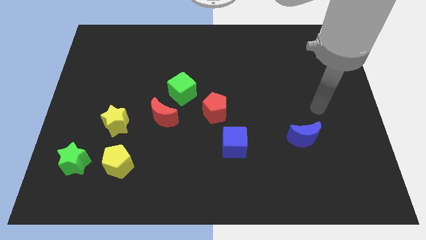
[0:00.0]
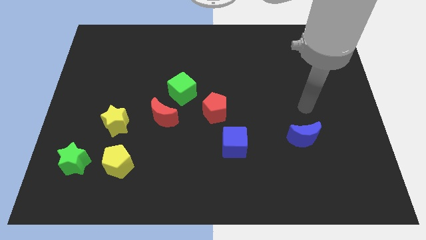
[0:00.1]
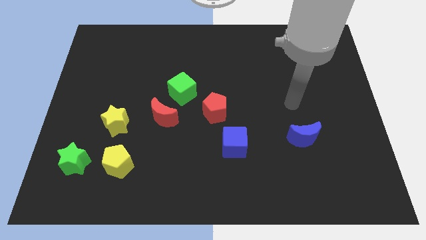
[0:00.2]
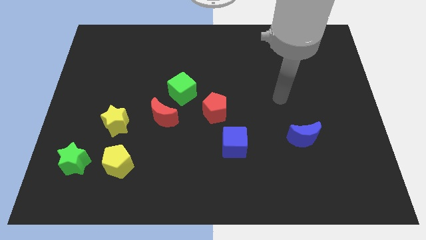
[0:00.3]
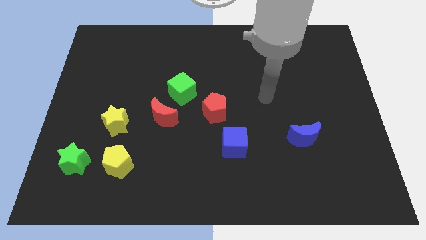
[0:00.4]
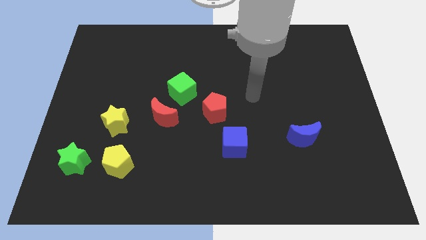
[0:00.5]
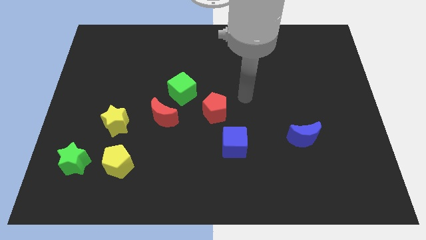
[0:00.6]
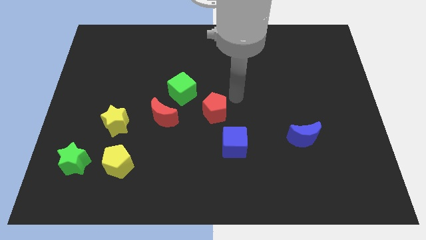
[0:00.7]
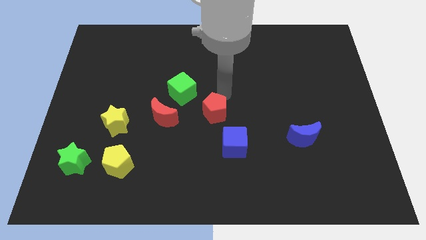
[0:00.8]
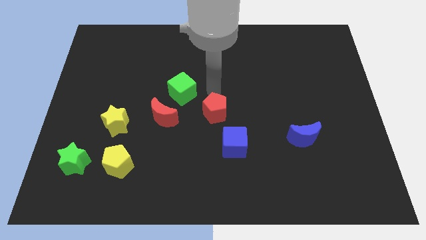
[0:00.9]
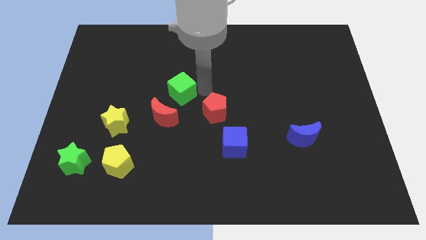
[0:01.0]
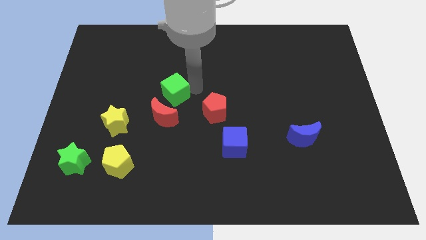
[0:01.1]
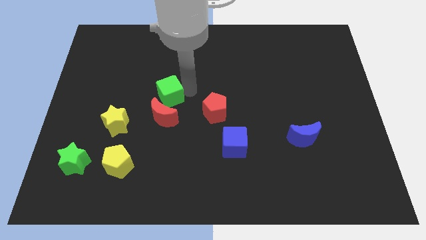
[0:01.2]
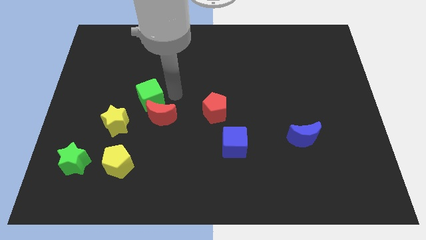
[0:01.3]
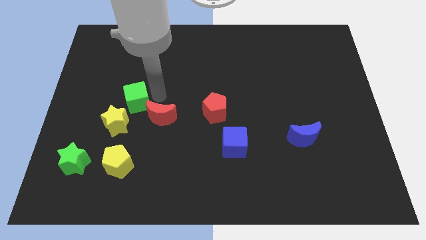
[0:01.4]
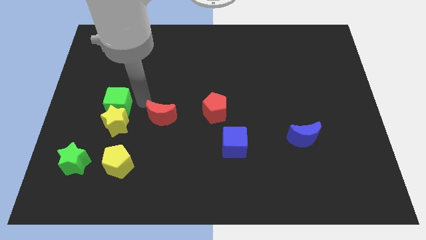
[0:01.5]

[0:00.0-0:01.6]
move the red moon away from the green cube

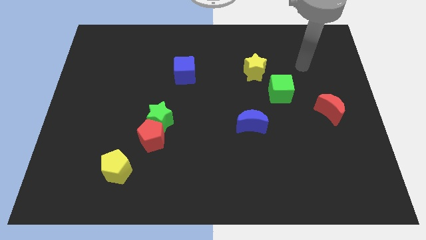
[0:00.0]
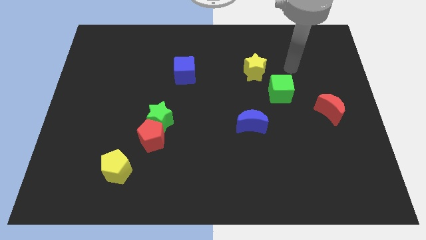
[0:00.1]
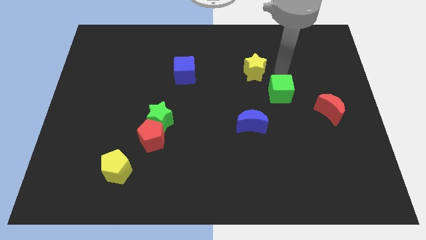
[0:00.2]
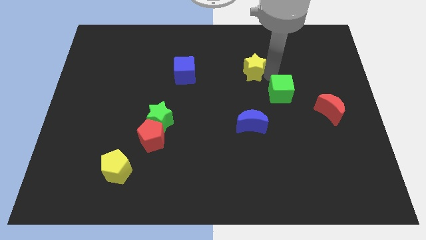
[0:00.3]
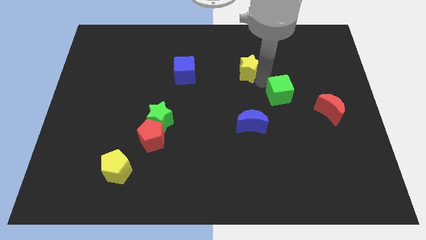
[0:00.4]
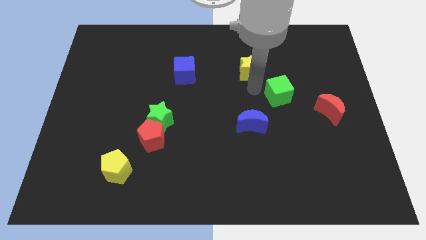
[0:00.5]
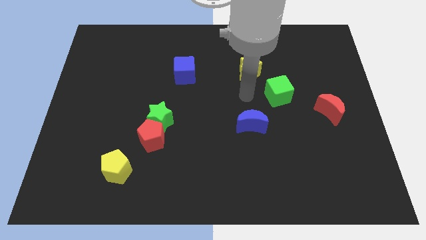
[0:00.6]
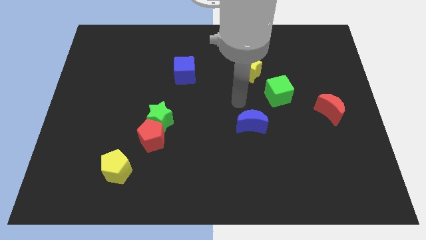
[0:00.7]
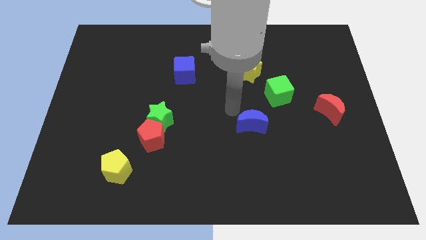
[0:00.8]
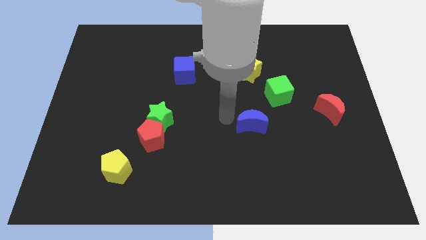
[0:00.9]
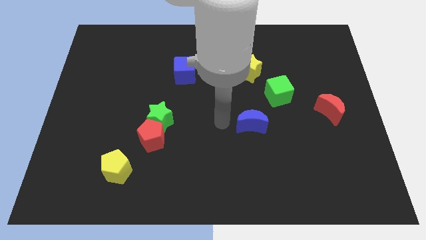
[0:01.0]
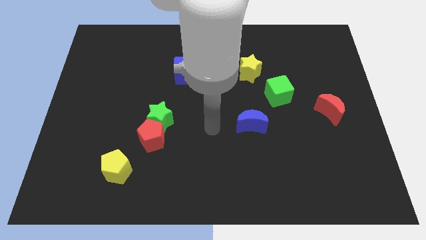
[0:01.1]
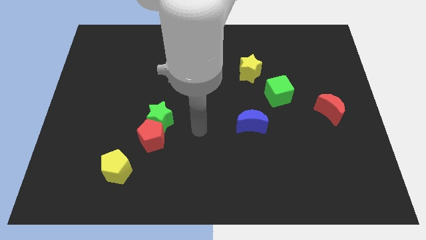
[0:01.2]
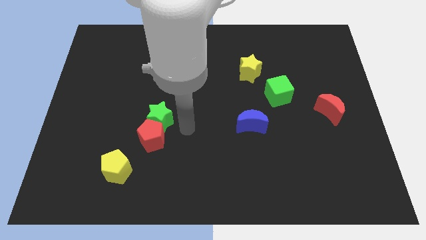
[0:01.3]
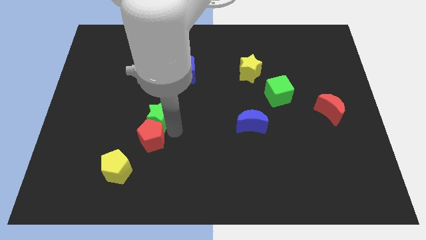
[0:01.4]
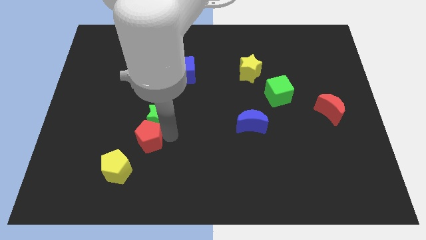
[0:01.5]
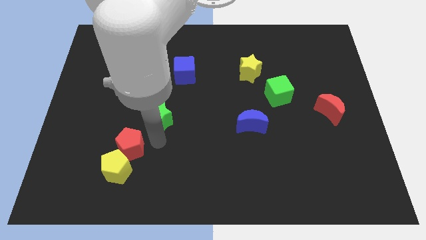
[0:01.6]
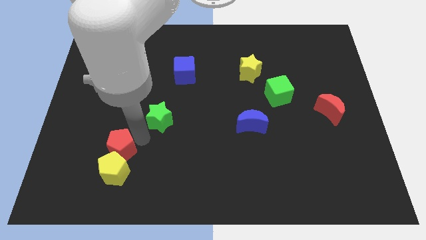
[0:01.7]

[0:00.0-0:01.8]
move the green star away from the red pentagon

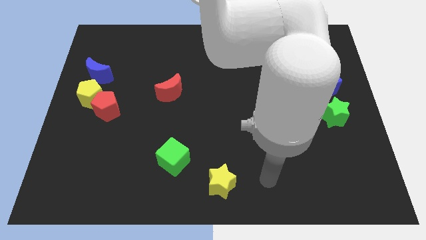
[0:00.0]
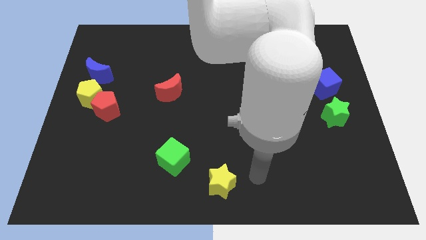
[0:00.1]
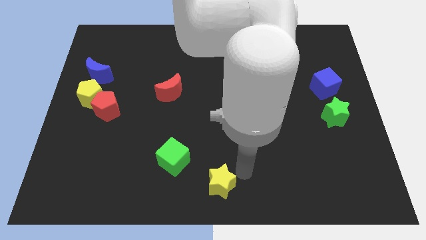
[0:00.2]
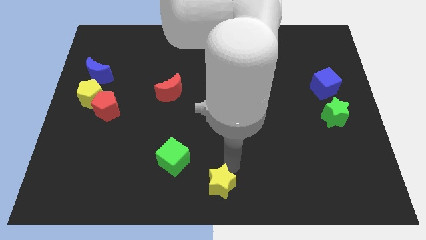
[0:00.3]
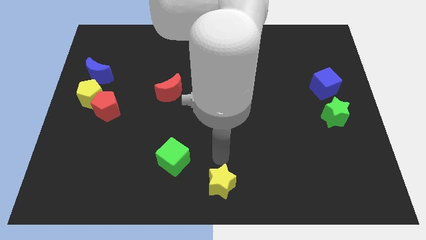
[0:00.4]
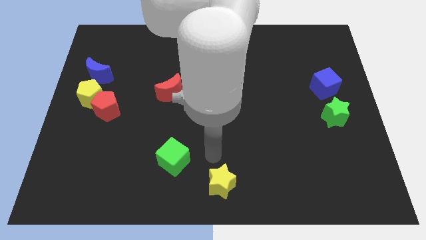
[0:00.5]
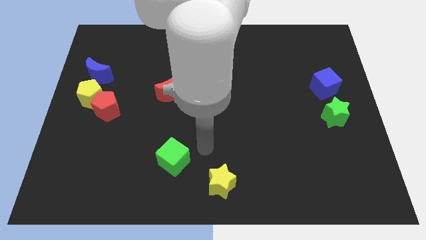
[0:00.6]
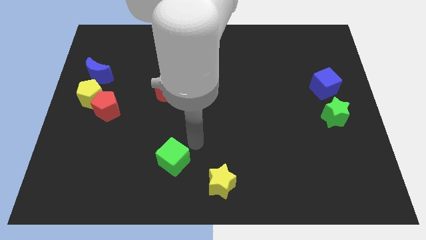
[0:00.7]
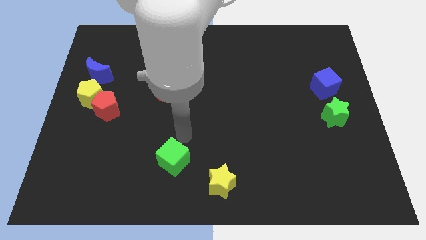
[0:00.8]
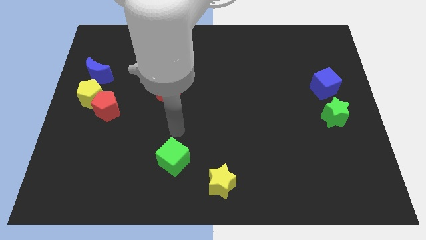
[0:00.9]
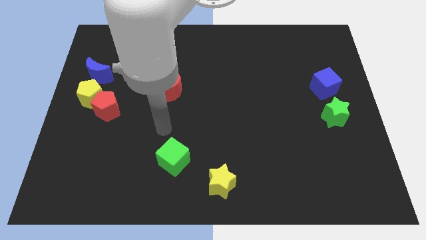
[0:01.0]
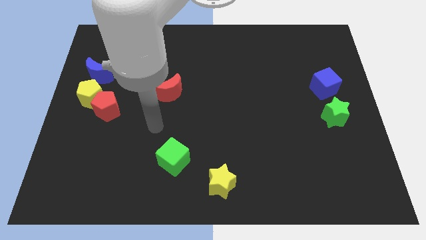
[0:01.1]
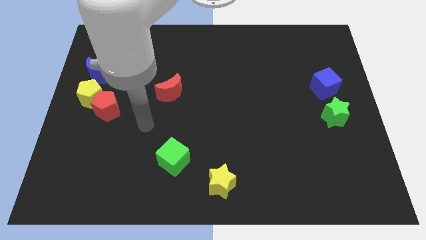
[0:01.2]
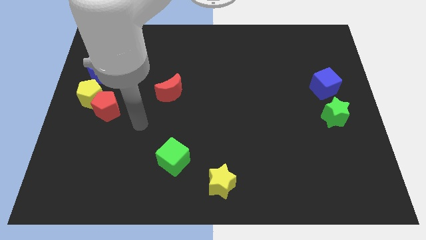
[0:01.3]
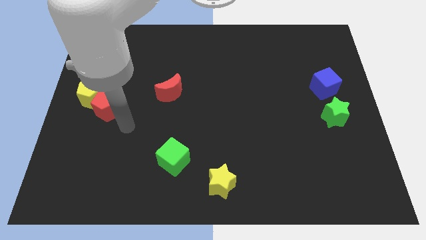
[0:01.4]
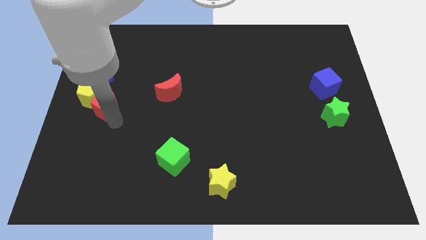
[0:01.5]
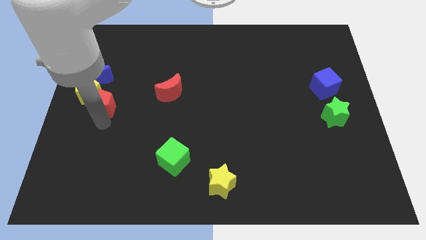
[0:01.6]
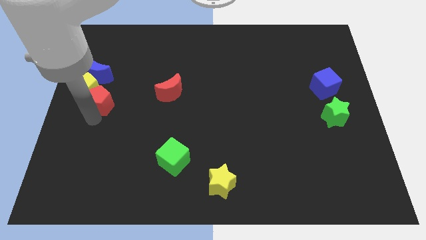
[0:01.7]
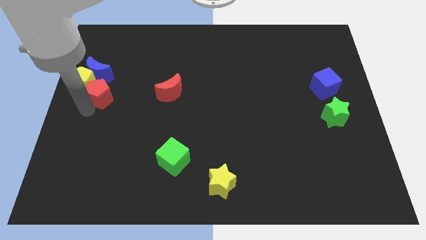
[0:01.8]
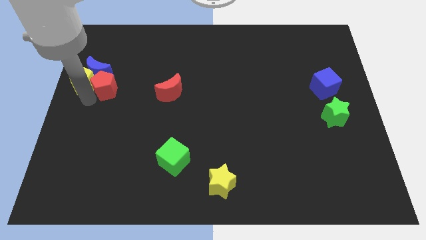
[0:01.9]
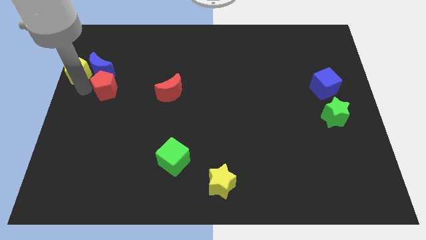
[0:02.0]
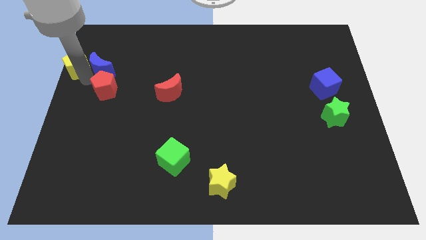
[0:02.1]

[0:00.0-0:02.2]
pull the red pentagon apart from the yellow pentagon

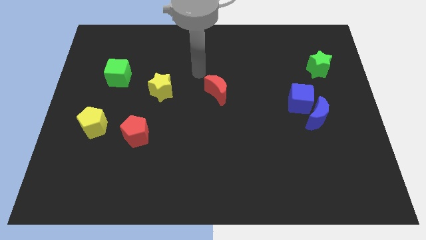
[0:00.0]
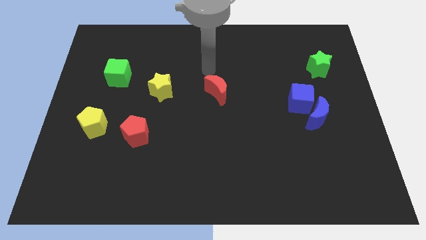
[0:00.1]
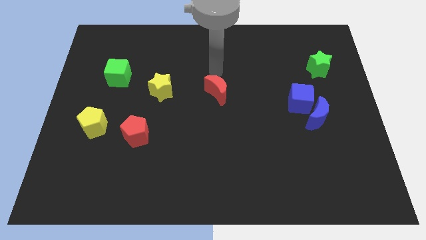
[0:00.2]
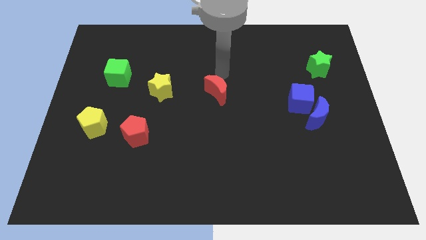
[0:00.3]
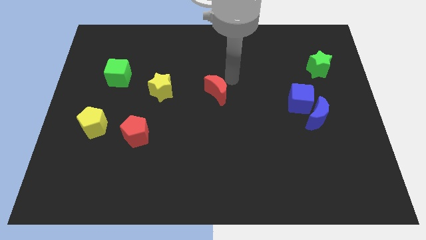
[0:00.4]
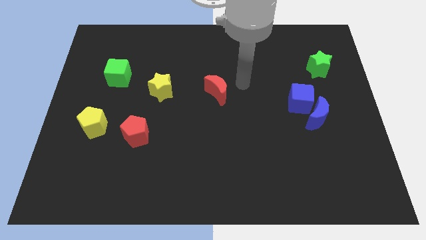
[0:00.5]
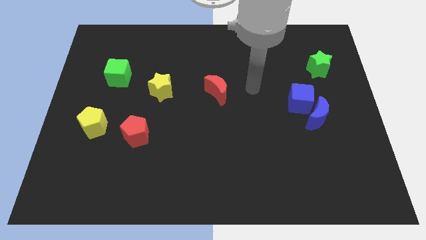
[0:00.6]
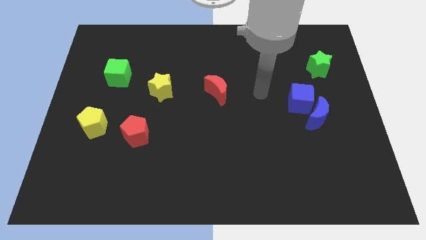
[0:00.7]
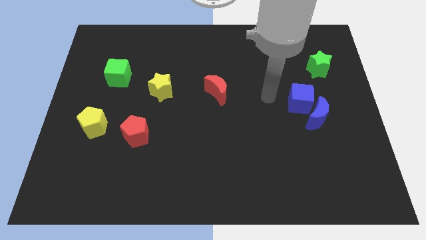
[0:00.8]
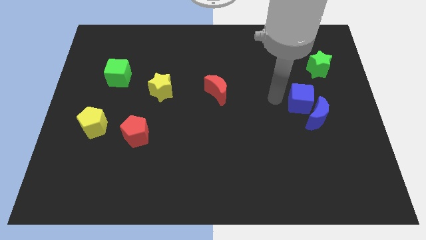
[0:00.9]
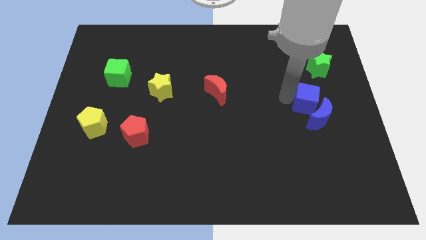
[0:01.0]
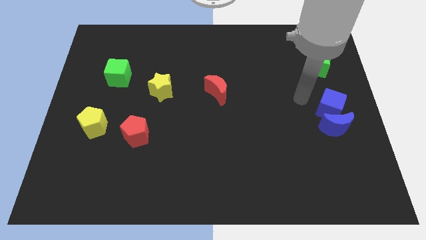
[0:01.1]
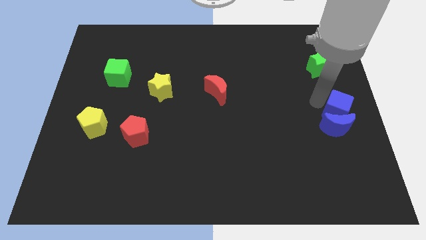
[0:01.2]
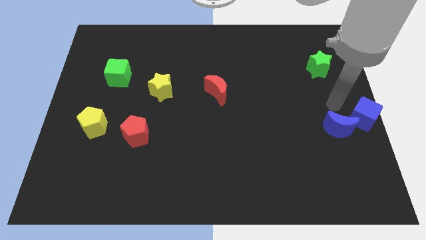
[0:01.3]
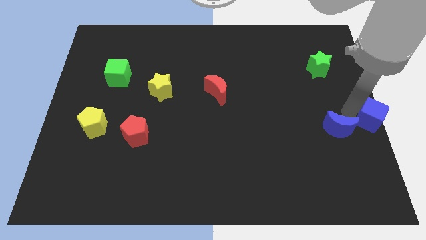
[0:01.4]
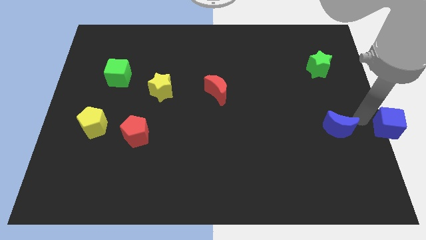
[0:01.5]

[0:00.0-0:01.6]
separate the blue moon from the blue cube

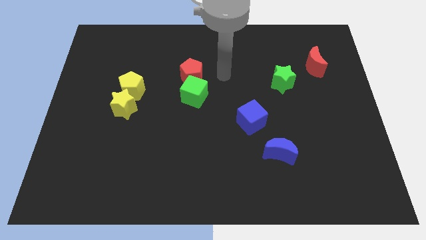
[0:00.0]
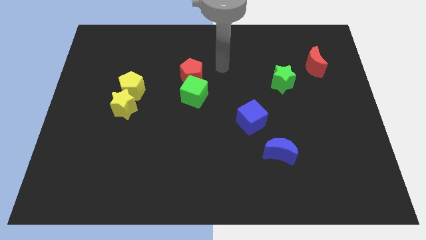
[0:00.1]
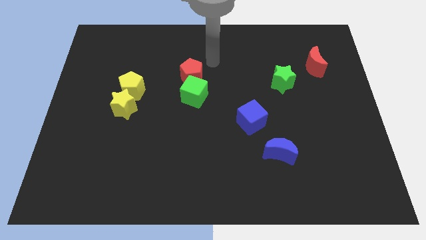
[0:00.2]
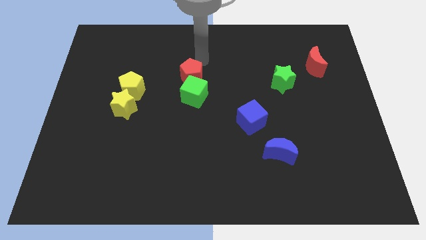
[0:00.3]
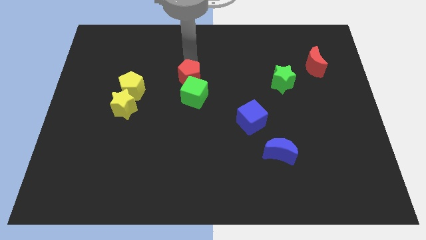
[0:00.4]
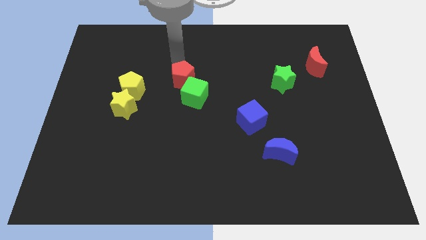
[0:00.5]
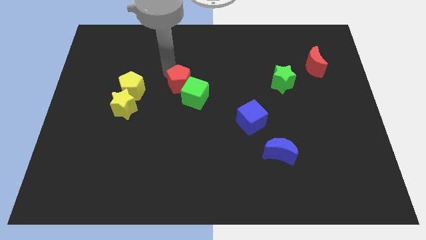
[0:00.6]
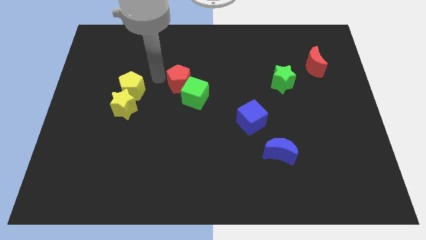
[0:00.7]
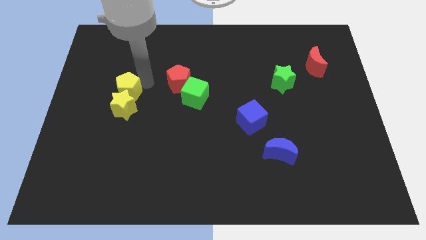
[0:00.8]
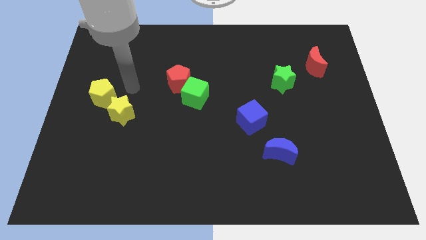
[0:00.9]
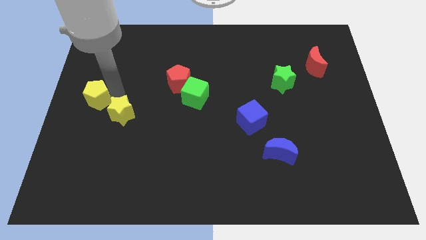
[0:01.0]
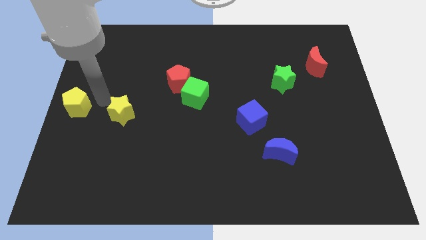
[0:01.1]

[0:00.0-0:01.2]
pull the yellow star apart from the yellow pentagon

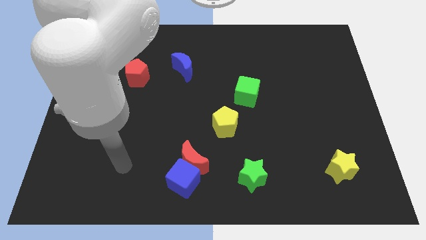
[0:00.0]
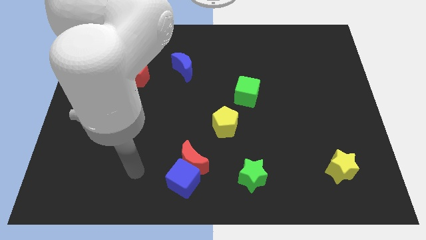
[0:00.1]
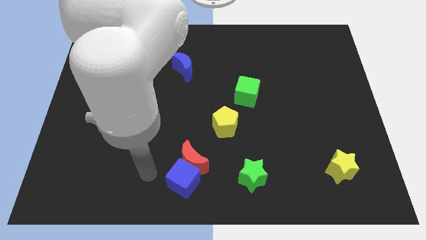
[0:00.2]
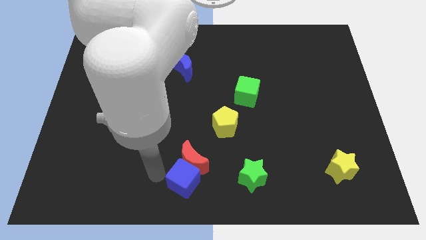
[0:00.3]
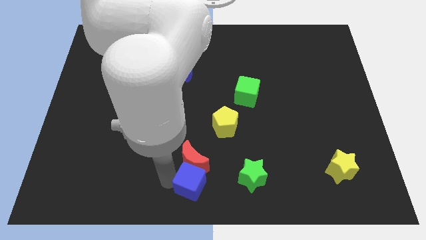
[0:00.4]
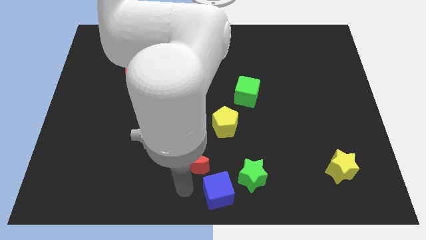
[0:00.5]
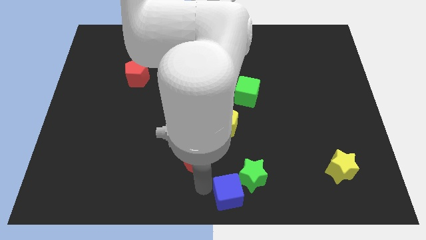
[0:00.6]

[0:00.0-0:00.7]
separate the red moon from the blue cube

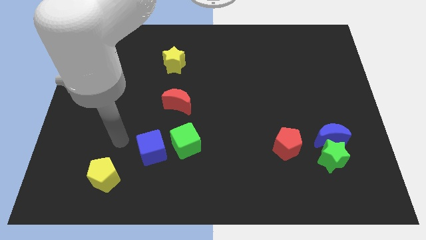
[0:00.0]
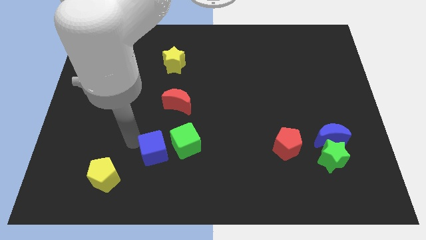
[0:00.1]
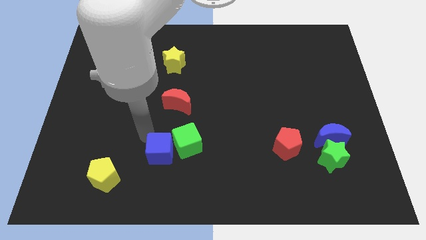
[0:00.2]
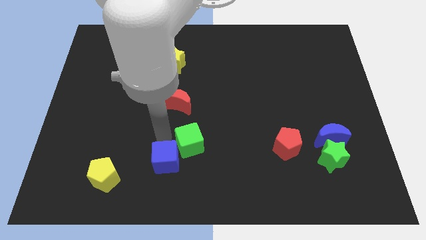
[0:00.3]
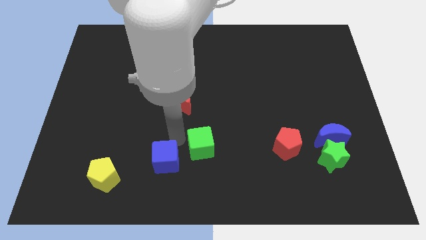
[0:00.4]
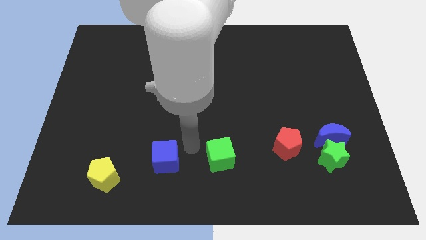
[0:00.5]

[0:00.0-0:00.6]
pull the blue cube apart from the green cube
